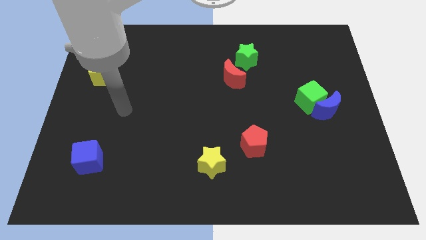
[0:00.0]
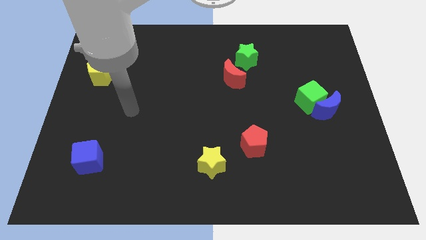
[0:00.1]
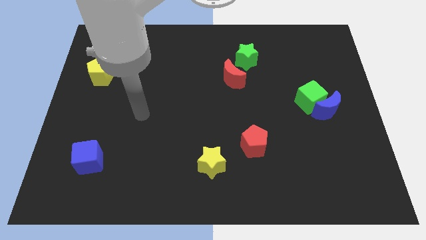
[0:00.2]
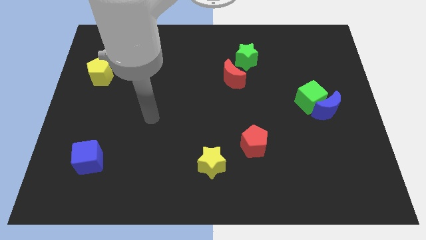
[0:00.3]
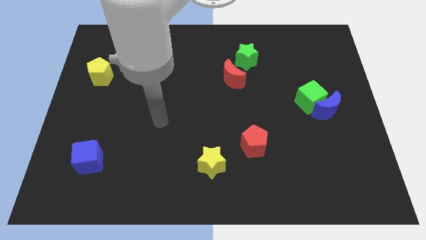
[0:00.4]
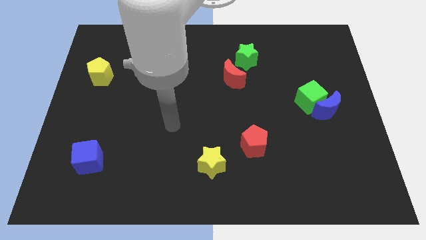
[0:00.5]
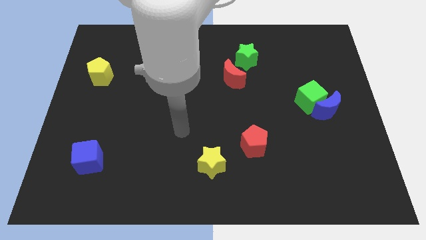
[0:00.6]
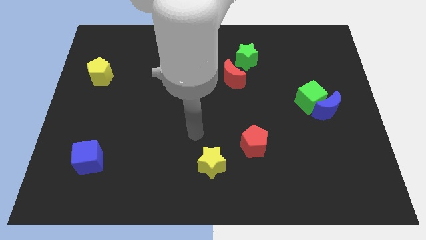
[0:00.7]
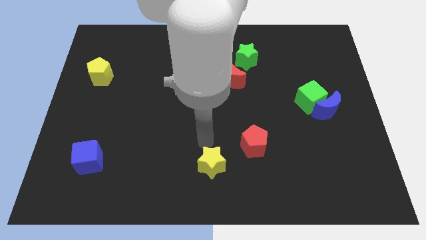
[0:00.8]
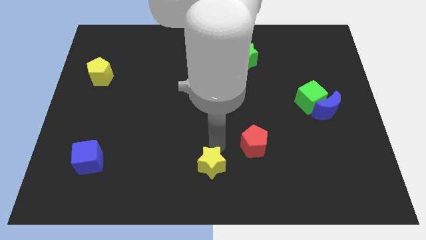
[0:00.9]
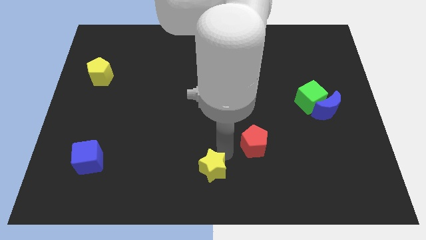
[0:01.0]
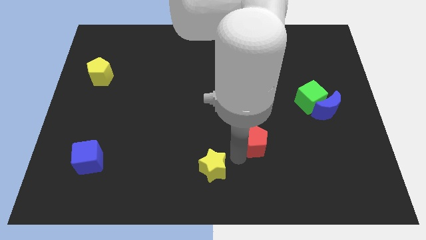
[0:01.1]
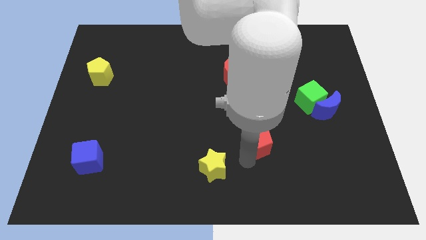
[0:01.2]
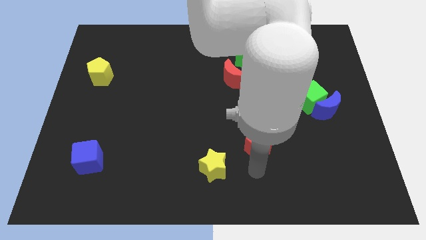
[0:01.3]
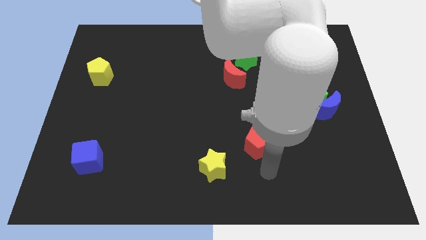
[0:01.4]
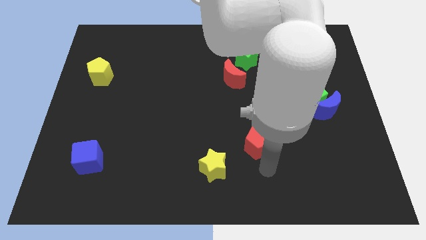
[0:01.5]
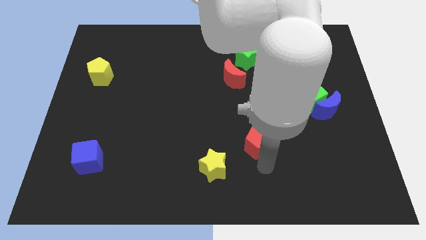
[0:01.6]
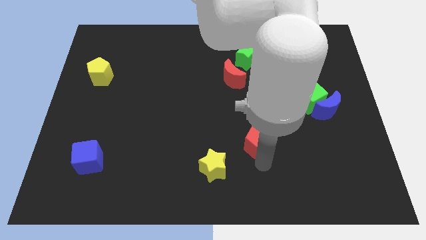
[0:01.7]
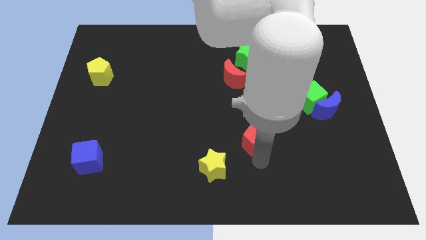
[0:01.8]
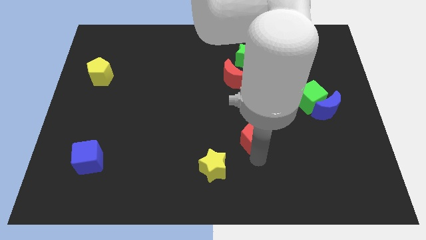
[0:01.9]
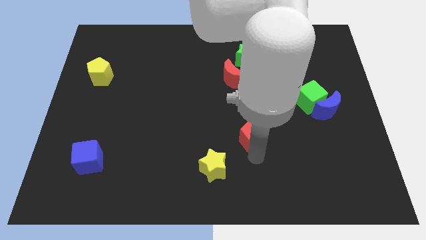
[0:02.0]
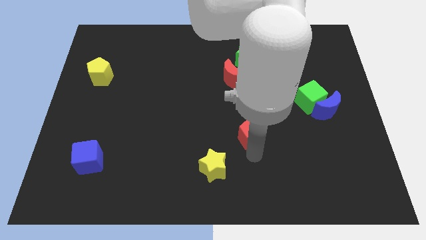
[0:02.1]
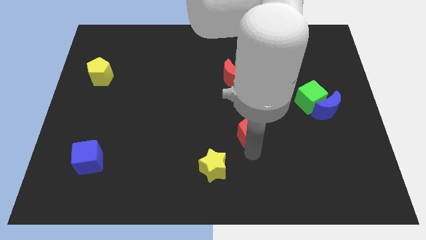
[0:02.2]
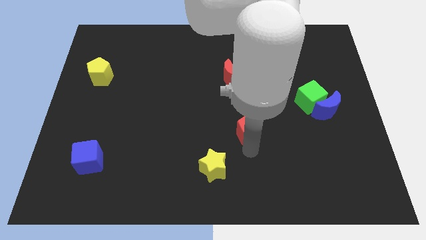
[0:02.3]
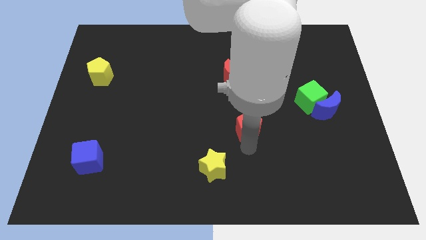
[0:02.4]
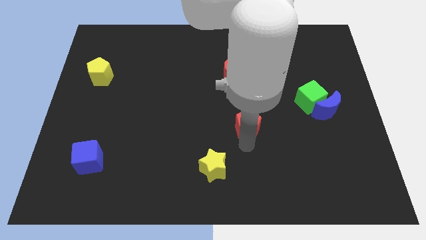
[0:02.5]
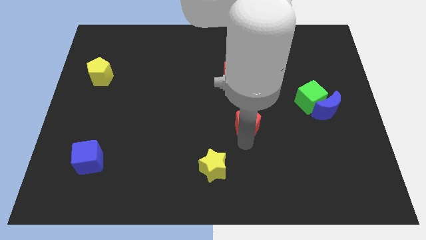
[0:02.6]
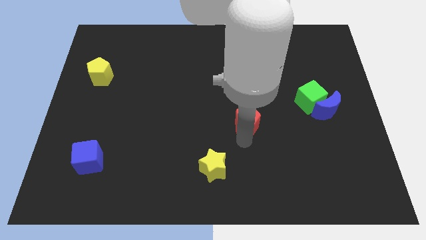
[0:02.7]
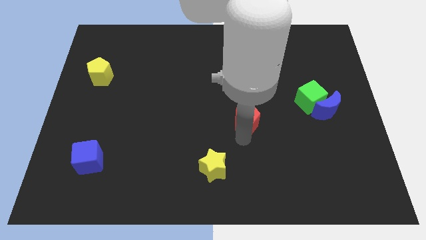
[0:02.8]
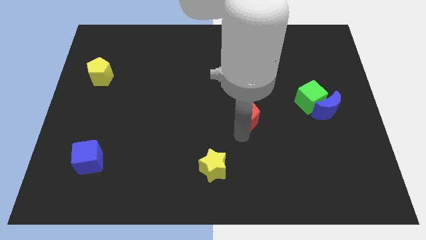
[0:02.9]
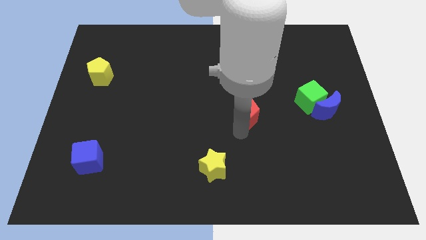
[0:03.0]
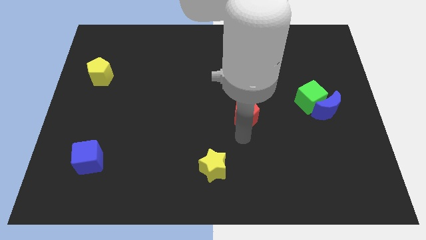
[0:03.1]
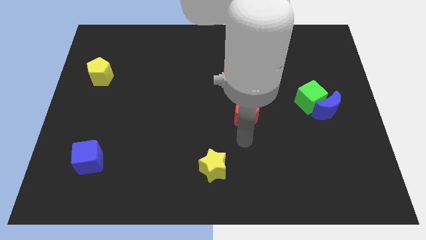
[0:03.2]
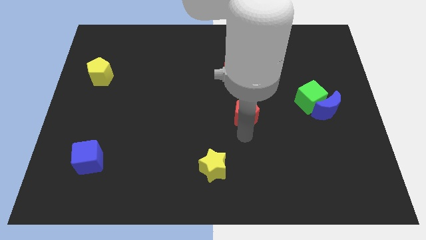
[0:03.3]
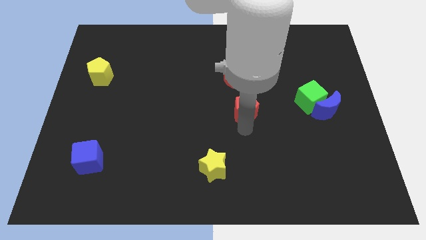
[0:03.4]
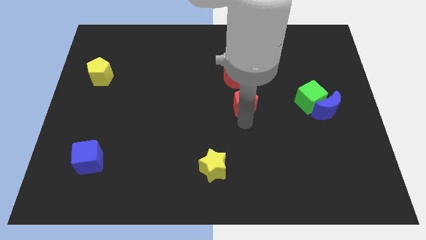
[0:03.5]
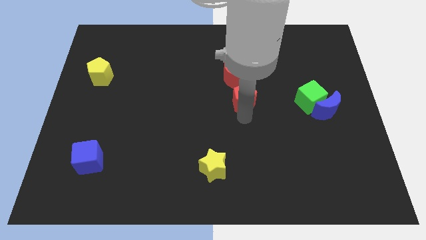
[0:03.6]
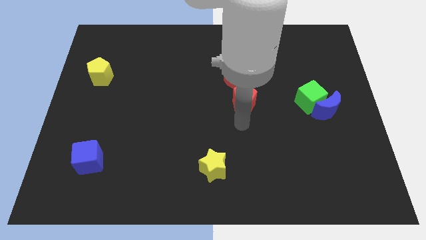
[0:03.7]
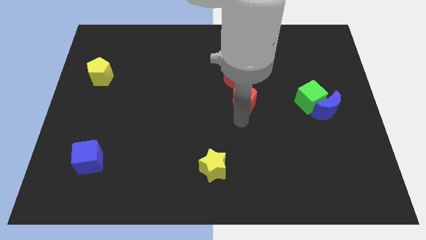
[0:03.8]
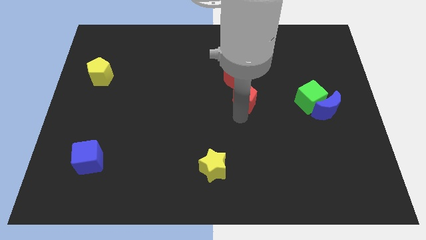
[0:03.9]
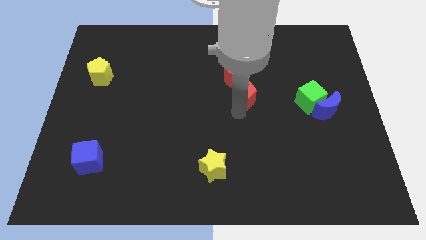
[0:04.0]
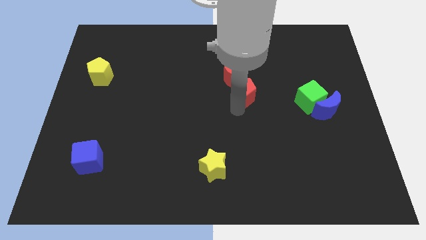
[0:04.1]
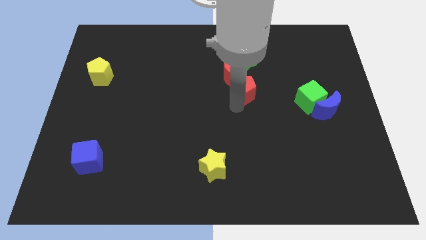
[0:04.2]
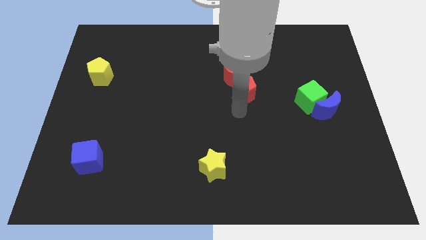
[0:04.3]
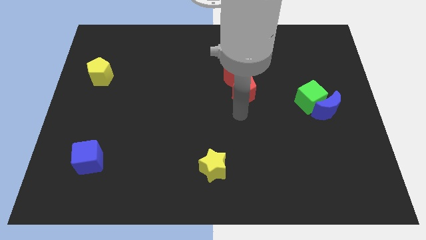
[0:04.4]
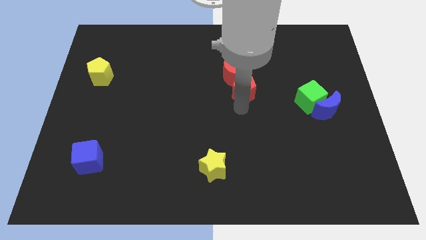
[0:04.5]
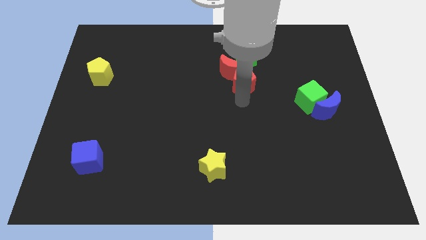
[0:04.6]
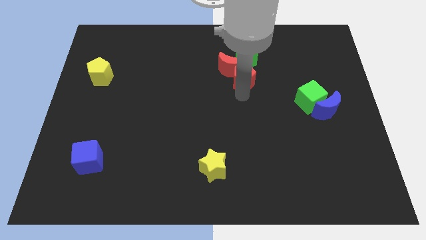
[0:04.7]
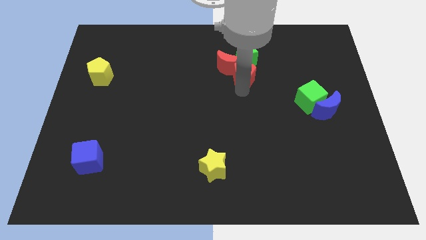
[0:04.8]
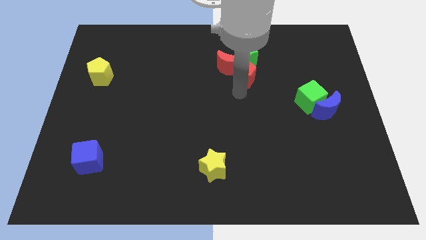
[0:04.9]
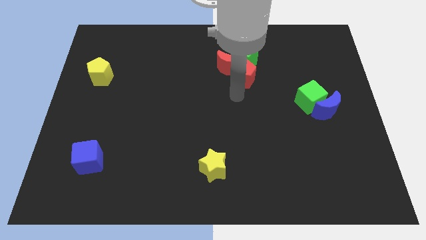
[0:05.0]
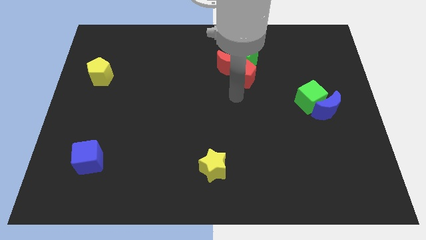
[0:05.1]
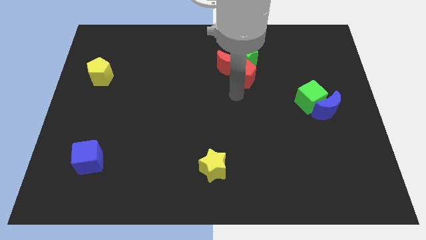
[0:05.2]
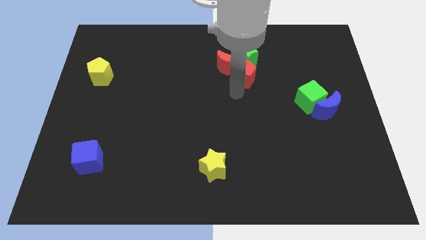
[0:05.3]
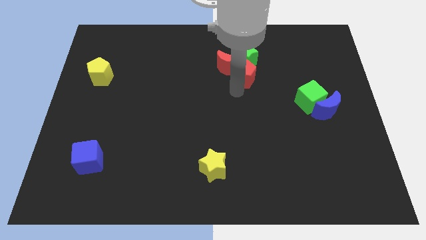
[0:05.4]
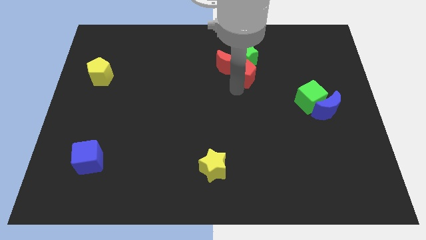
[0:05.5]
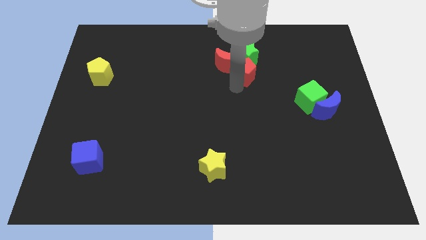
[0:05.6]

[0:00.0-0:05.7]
move the red pentagon next to the green star

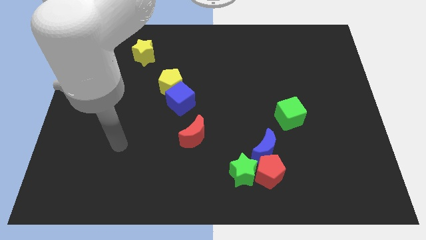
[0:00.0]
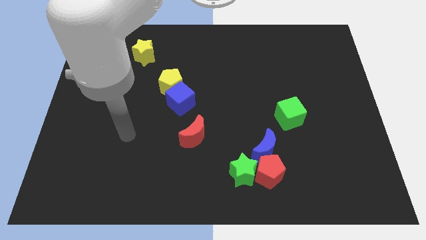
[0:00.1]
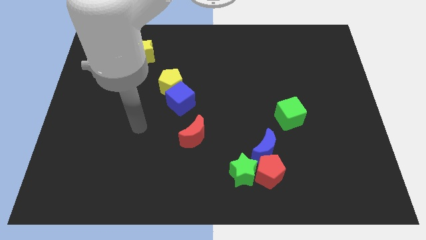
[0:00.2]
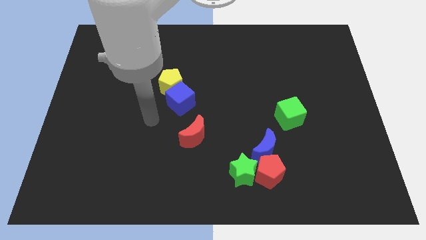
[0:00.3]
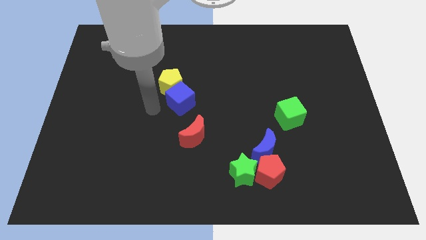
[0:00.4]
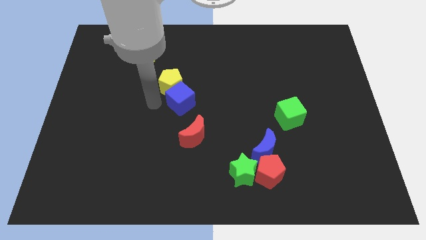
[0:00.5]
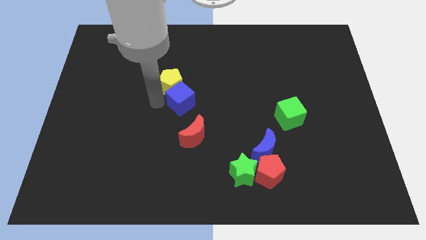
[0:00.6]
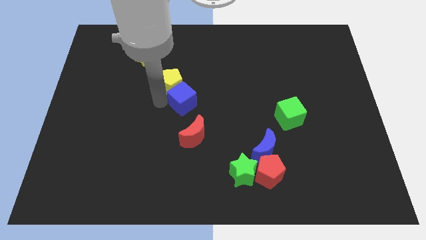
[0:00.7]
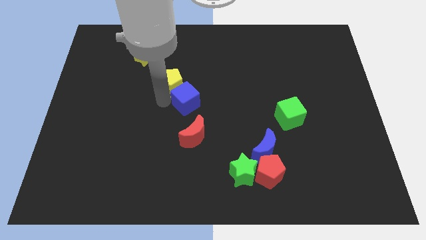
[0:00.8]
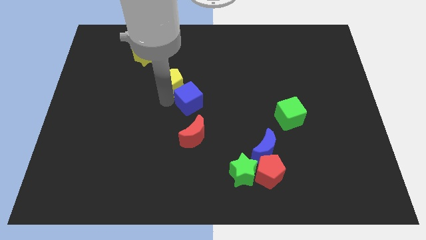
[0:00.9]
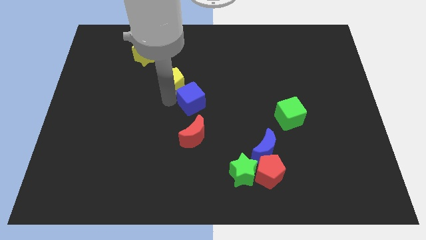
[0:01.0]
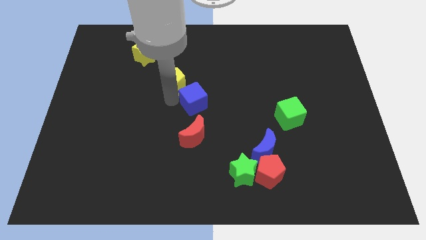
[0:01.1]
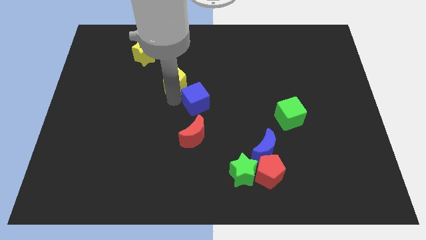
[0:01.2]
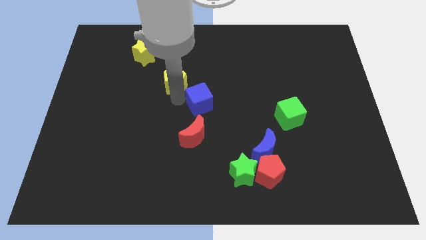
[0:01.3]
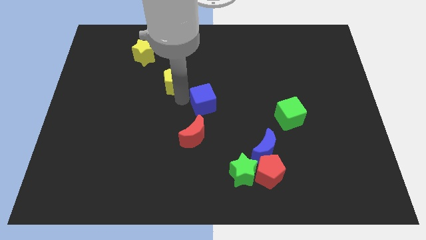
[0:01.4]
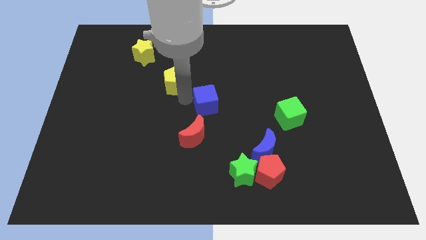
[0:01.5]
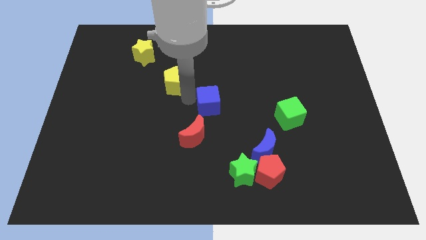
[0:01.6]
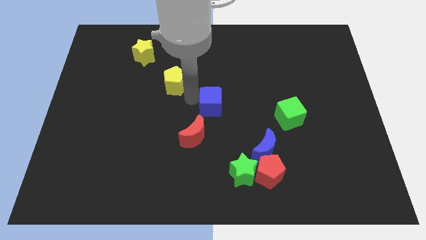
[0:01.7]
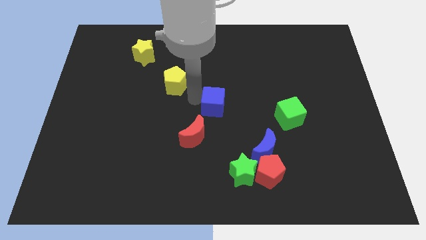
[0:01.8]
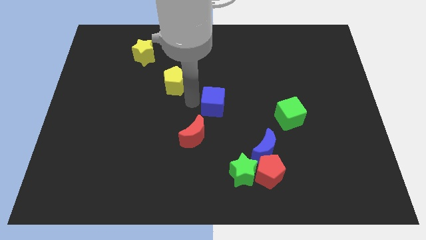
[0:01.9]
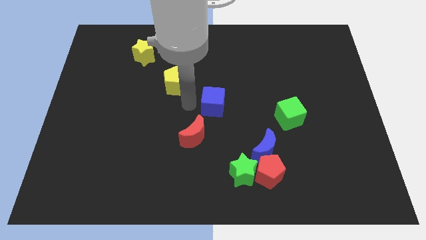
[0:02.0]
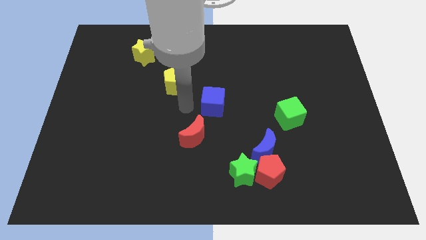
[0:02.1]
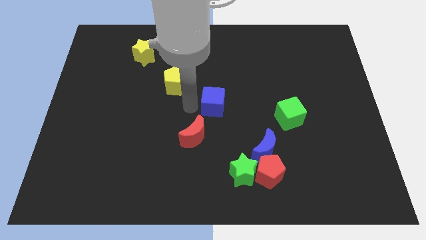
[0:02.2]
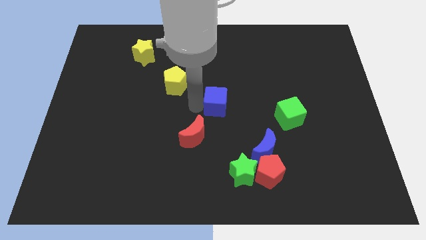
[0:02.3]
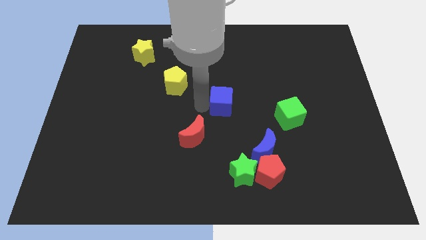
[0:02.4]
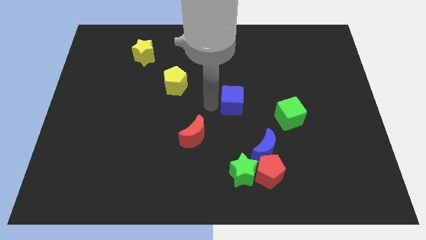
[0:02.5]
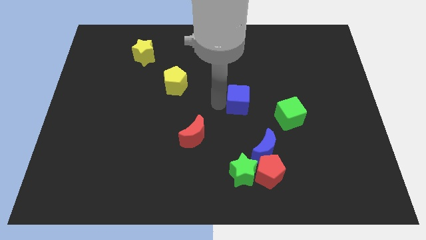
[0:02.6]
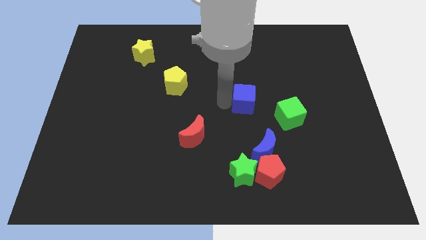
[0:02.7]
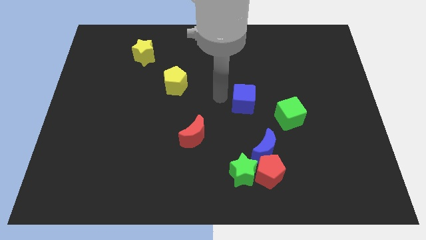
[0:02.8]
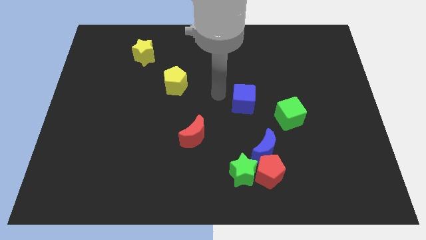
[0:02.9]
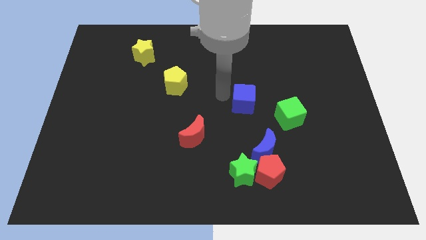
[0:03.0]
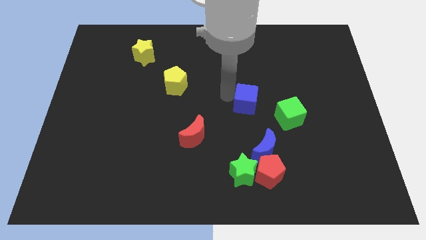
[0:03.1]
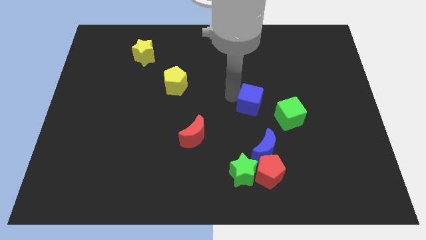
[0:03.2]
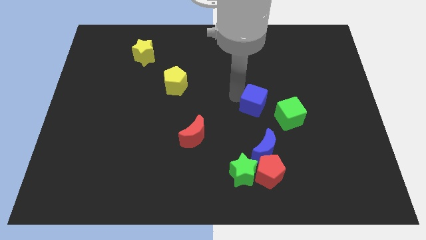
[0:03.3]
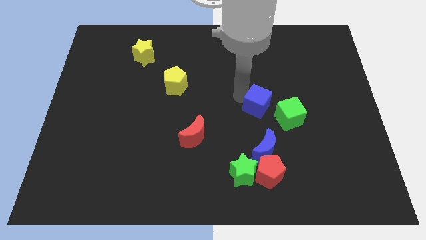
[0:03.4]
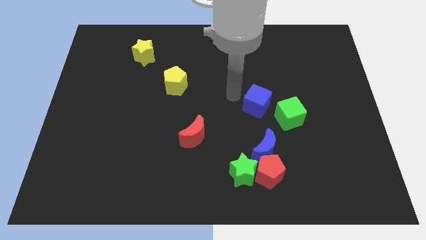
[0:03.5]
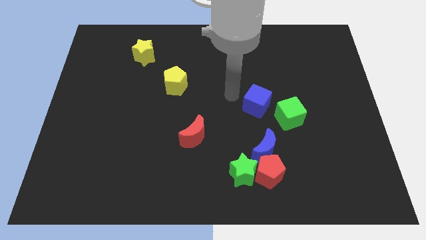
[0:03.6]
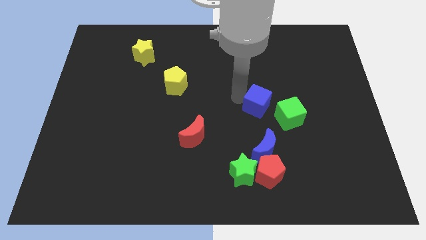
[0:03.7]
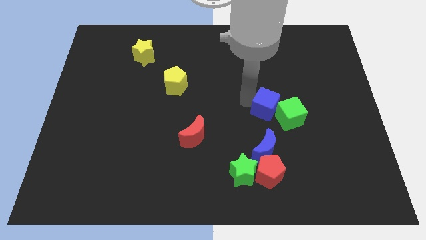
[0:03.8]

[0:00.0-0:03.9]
move the blue cube close to the green cube
